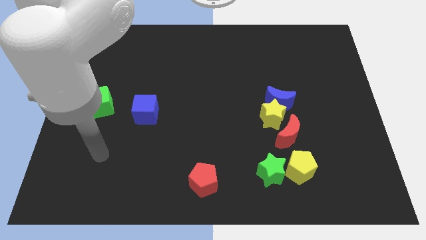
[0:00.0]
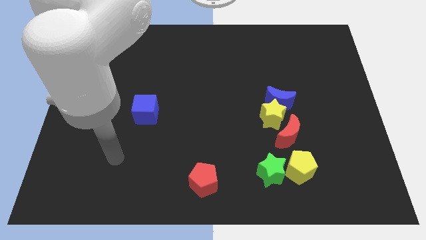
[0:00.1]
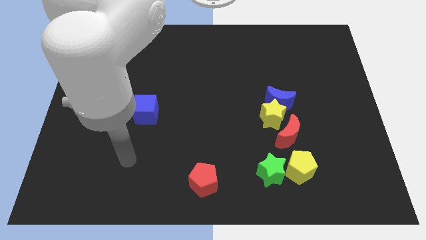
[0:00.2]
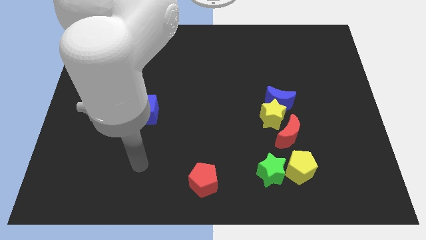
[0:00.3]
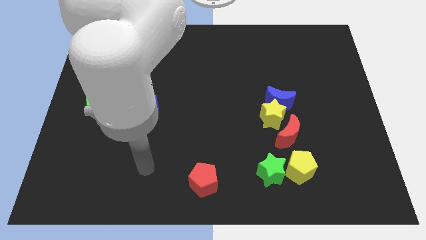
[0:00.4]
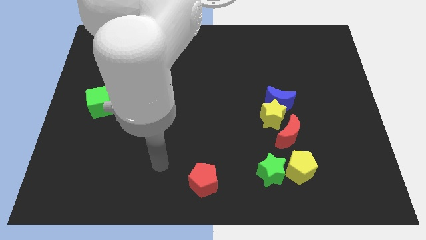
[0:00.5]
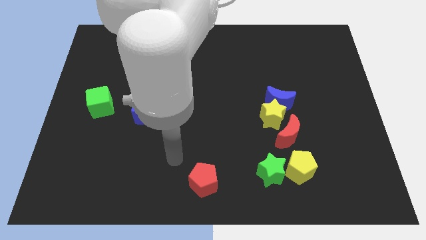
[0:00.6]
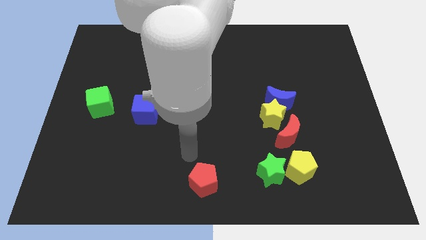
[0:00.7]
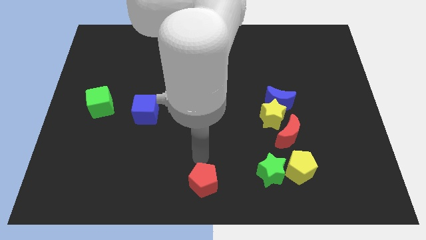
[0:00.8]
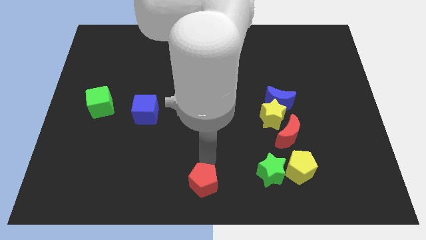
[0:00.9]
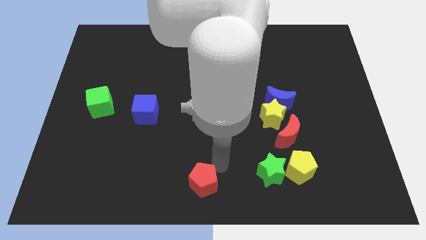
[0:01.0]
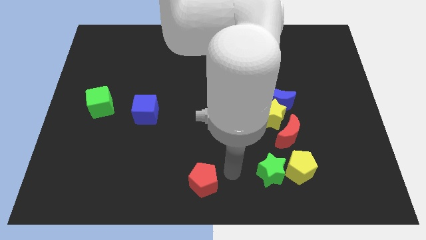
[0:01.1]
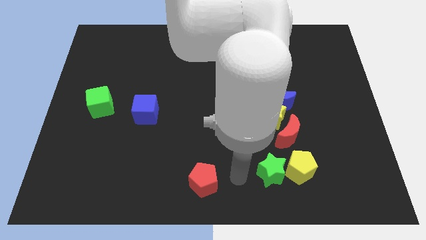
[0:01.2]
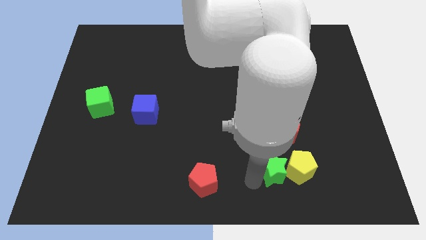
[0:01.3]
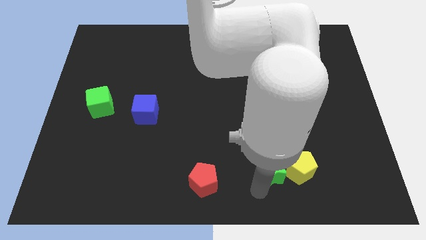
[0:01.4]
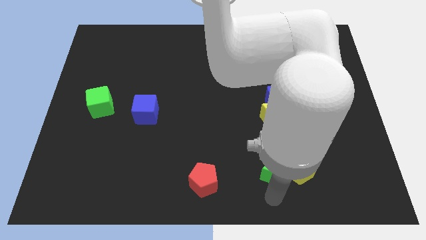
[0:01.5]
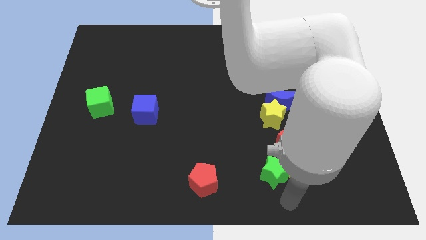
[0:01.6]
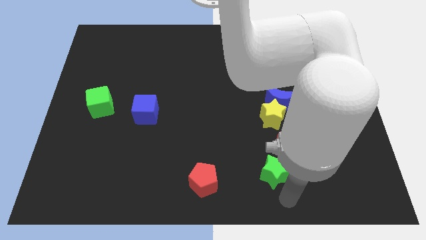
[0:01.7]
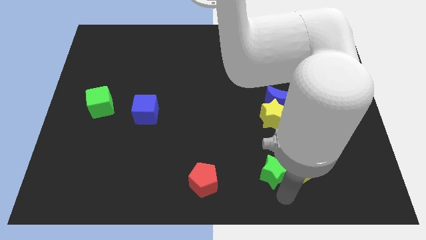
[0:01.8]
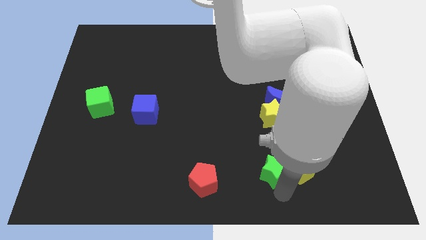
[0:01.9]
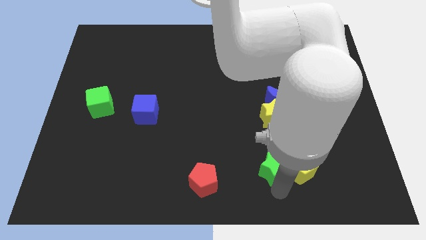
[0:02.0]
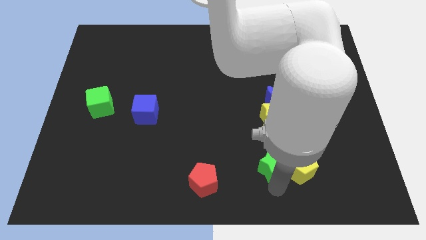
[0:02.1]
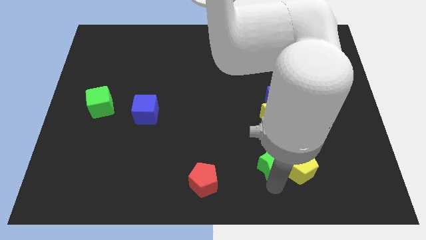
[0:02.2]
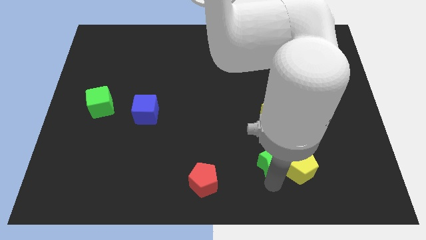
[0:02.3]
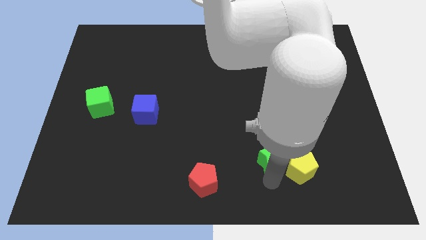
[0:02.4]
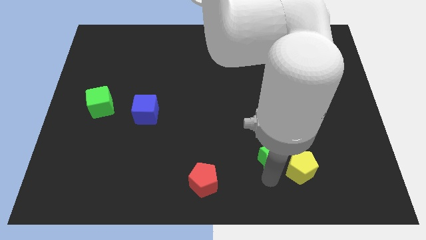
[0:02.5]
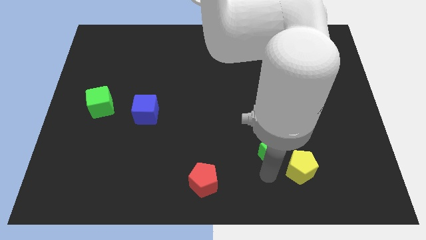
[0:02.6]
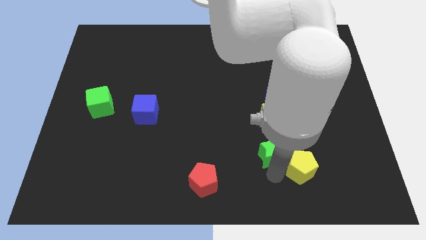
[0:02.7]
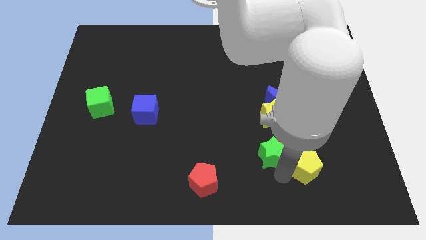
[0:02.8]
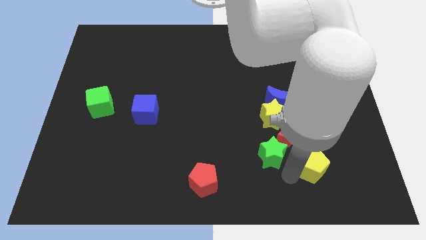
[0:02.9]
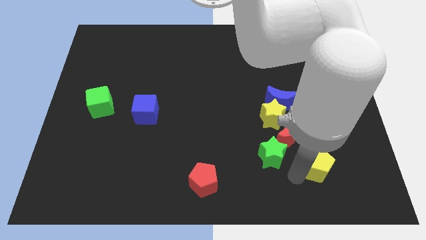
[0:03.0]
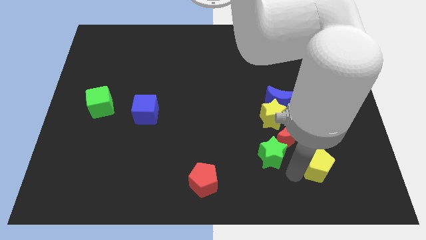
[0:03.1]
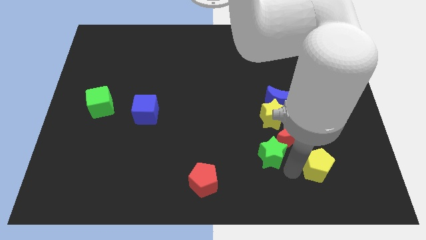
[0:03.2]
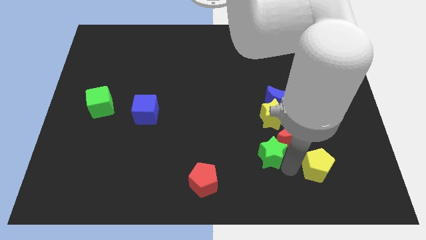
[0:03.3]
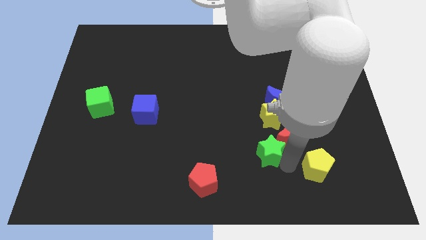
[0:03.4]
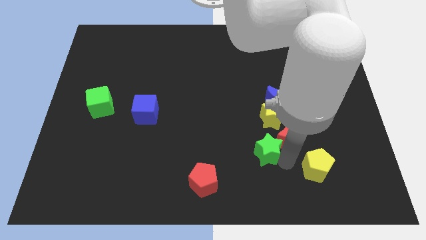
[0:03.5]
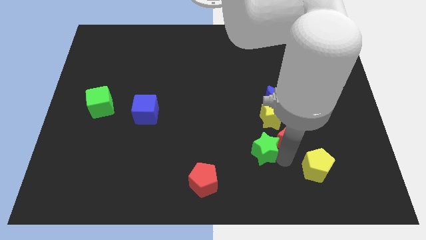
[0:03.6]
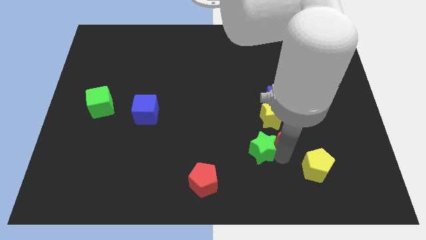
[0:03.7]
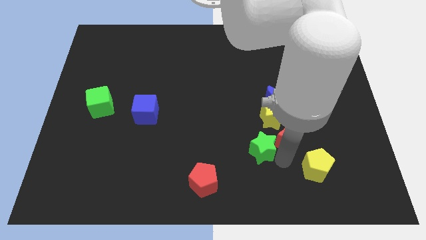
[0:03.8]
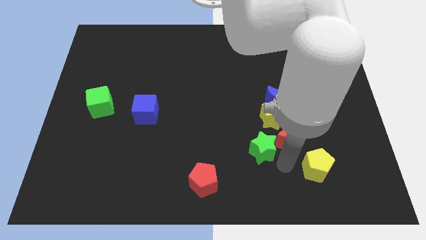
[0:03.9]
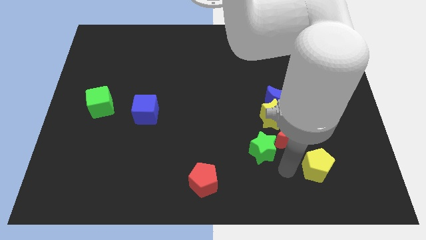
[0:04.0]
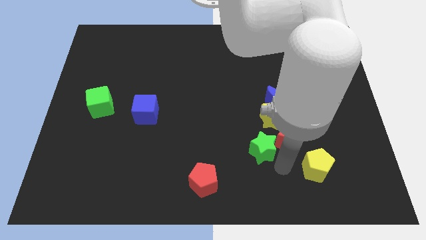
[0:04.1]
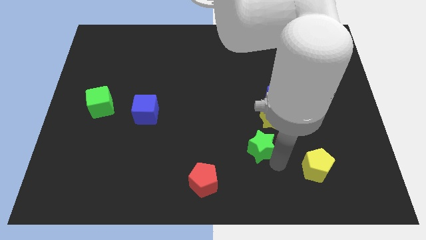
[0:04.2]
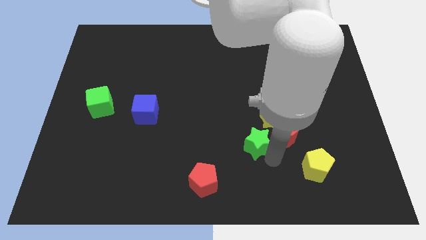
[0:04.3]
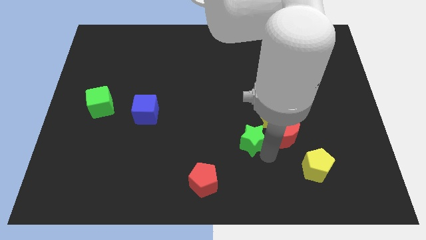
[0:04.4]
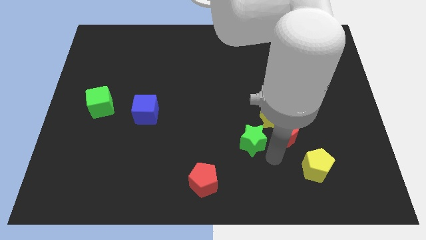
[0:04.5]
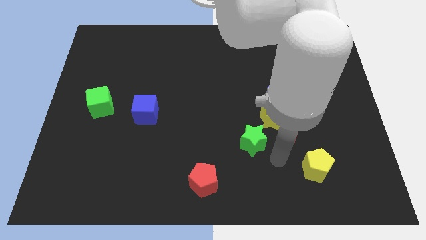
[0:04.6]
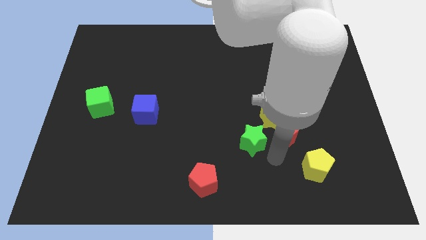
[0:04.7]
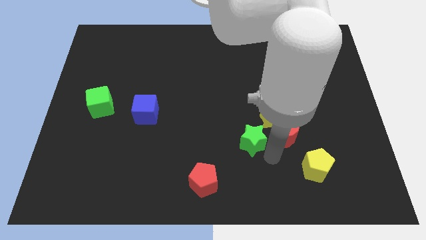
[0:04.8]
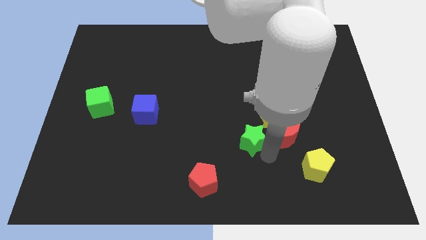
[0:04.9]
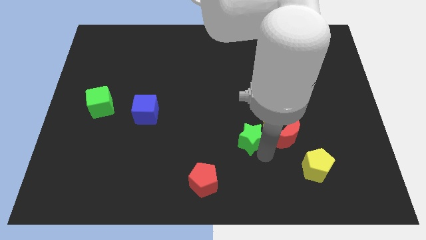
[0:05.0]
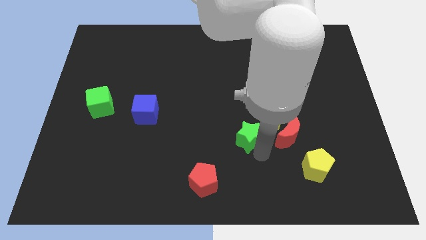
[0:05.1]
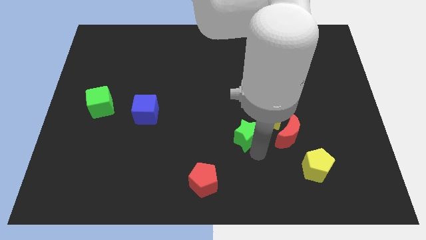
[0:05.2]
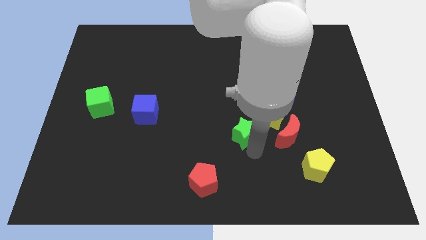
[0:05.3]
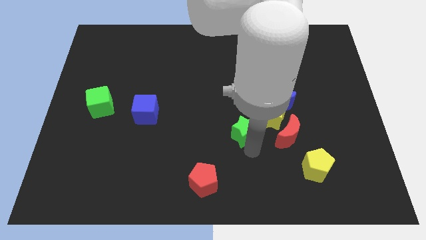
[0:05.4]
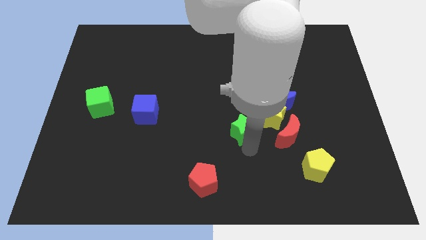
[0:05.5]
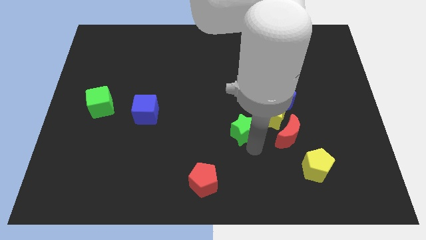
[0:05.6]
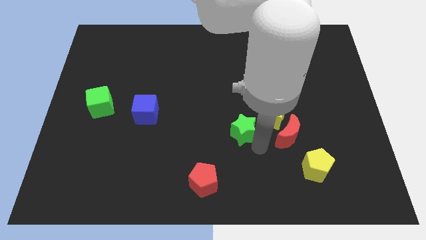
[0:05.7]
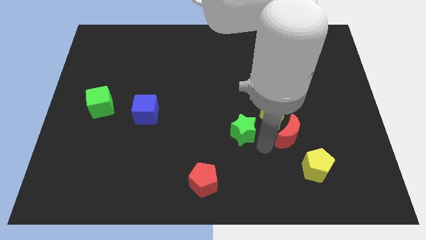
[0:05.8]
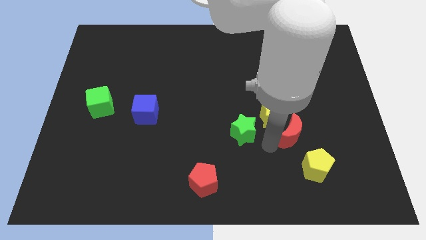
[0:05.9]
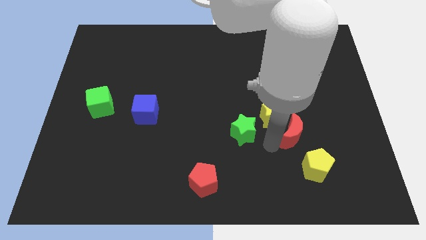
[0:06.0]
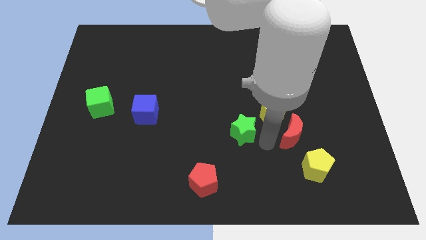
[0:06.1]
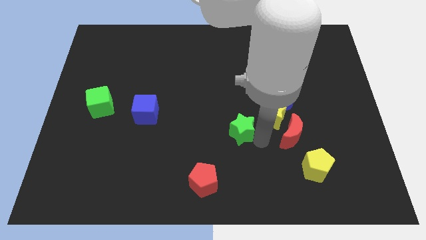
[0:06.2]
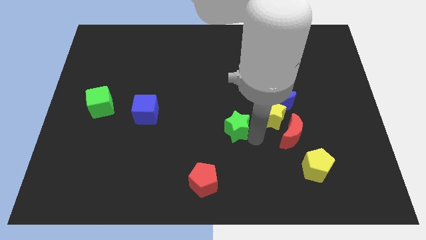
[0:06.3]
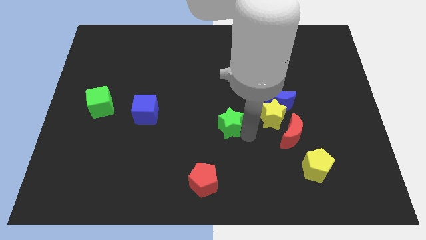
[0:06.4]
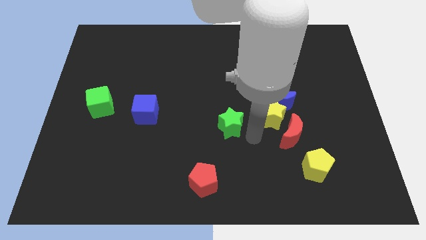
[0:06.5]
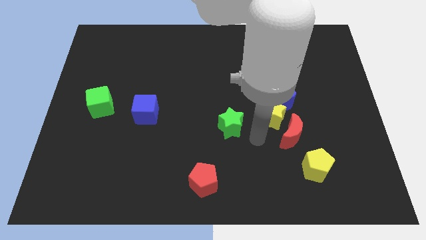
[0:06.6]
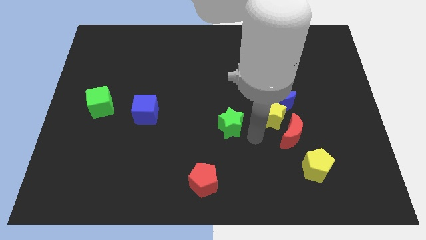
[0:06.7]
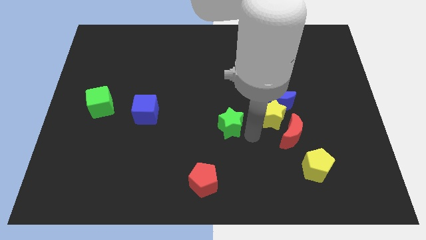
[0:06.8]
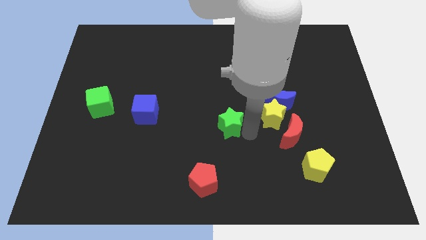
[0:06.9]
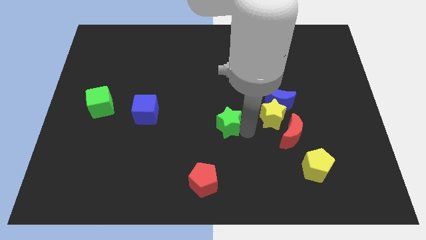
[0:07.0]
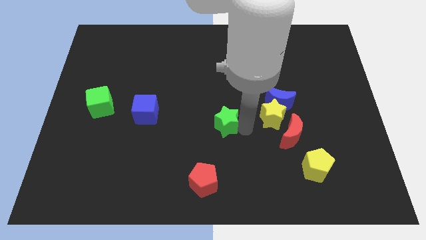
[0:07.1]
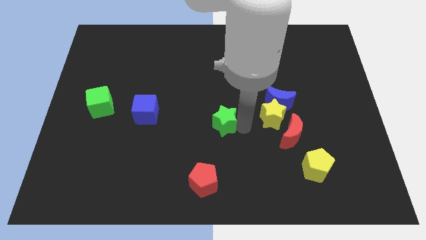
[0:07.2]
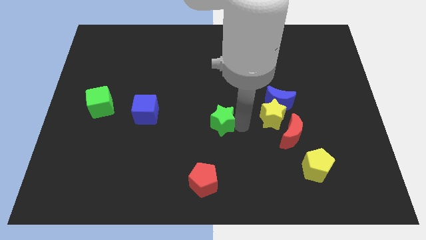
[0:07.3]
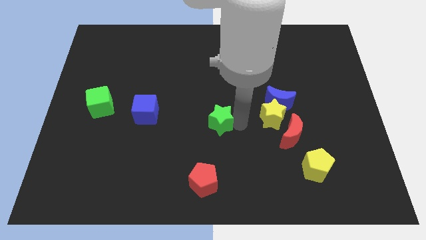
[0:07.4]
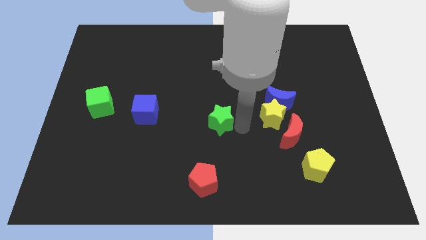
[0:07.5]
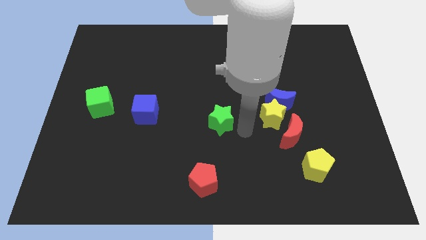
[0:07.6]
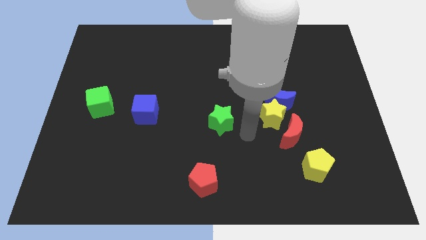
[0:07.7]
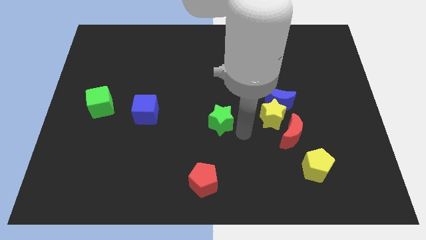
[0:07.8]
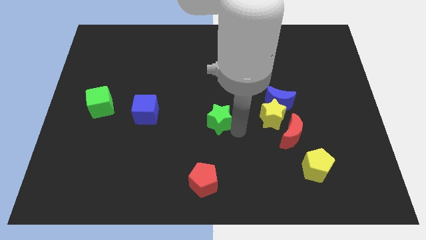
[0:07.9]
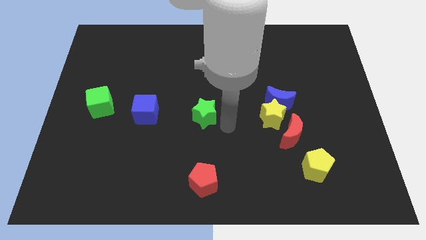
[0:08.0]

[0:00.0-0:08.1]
move the green star upwards and to the left diagonally
